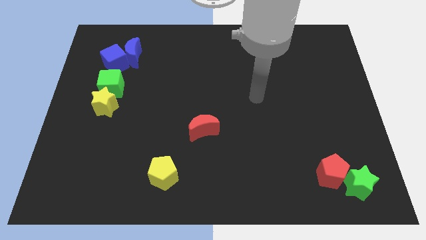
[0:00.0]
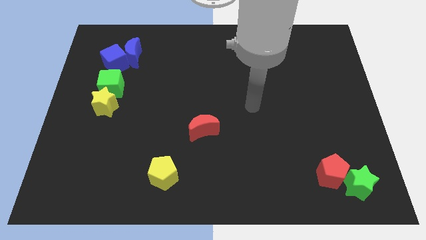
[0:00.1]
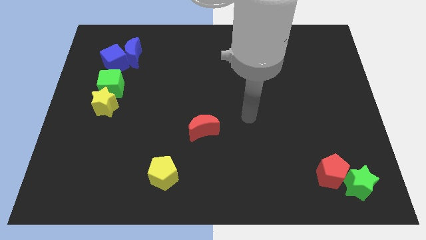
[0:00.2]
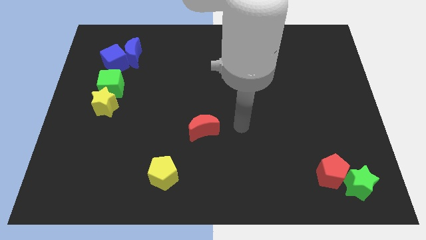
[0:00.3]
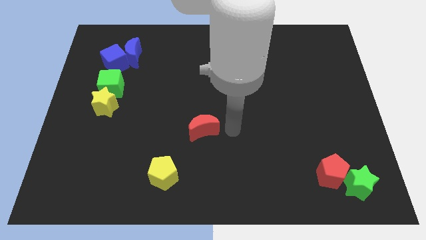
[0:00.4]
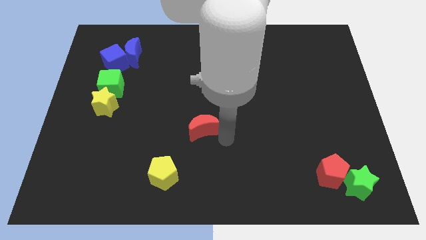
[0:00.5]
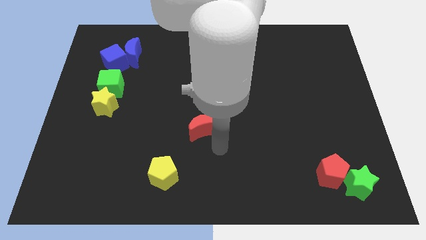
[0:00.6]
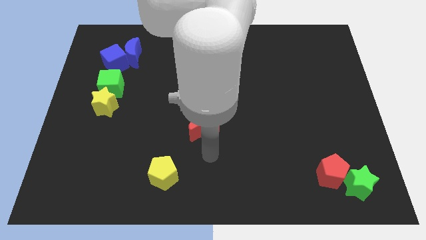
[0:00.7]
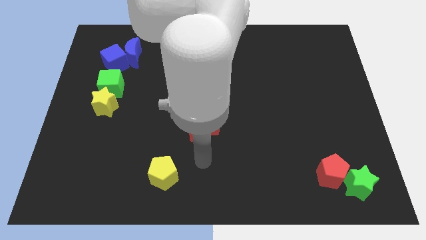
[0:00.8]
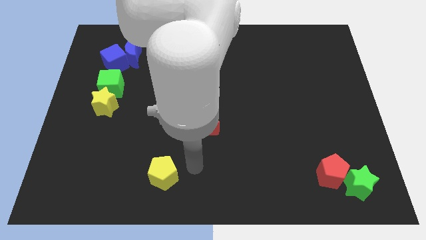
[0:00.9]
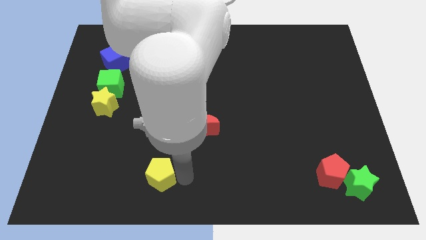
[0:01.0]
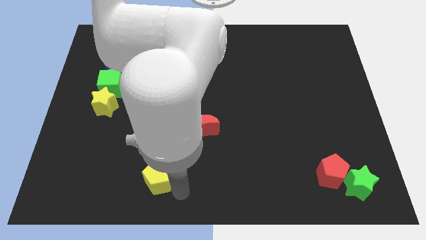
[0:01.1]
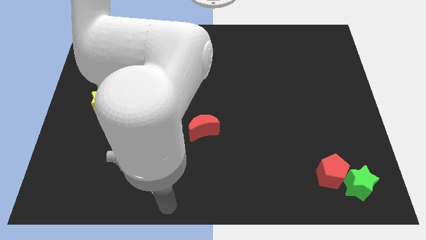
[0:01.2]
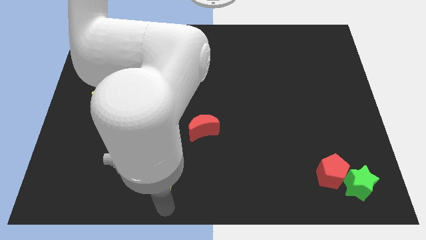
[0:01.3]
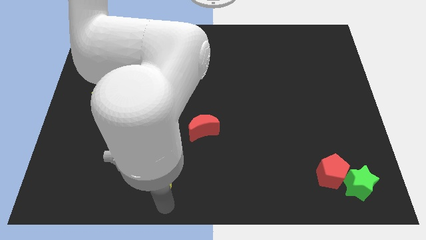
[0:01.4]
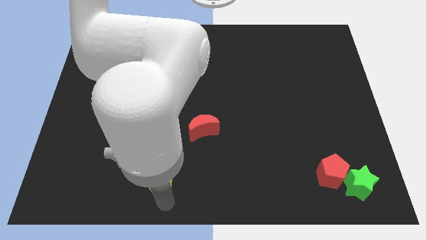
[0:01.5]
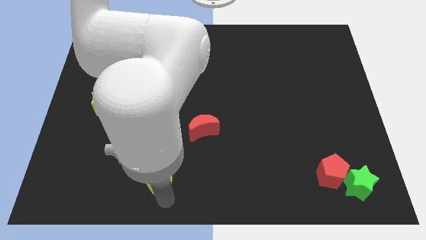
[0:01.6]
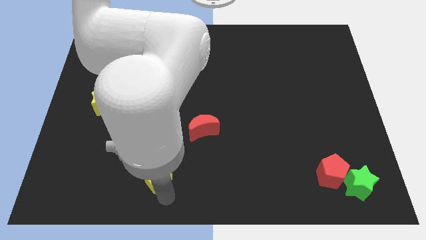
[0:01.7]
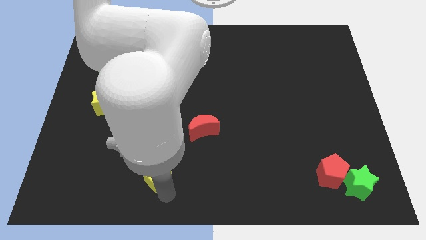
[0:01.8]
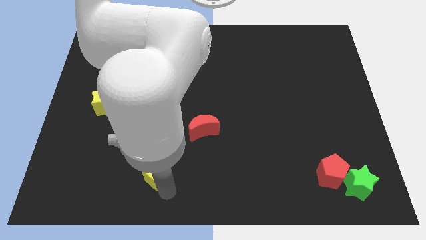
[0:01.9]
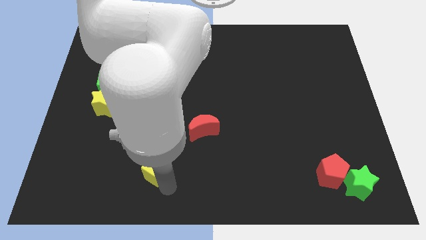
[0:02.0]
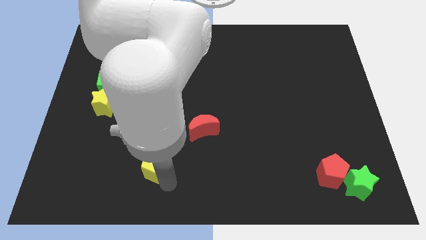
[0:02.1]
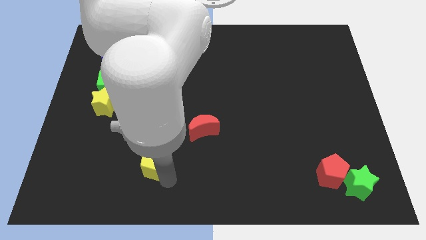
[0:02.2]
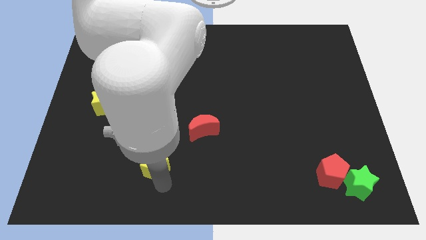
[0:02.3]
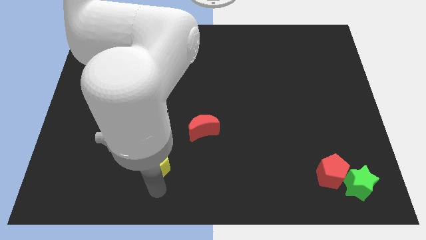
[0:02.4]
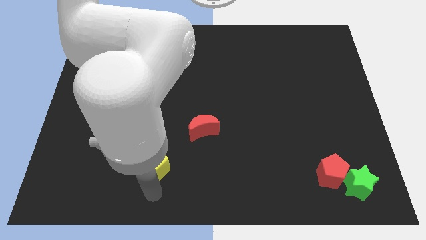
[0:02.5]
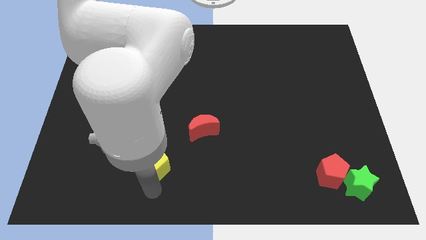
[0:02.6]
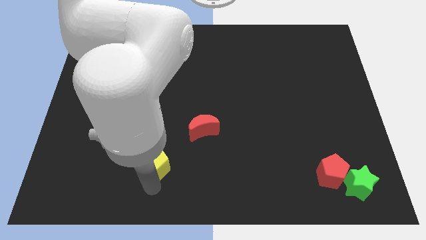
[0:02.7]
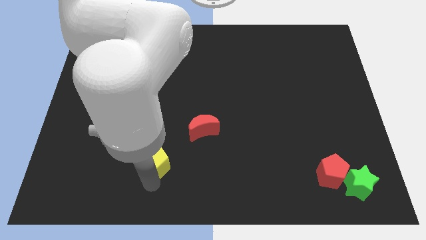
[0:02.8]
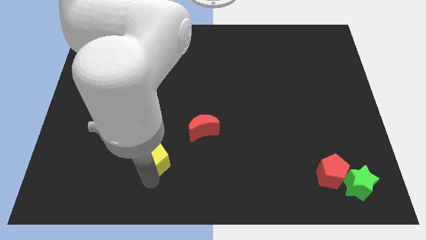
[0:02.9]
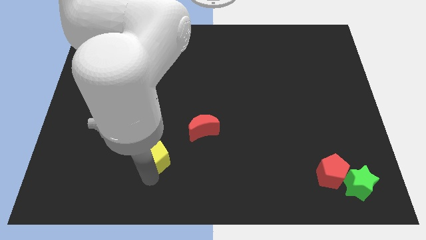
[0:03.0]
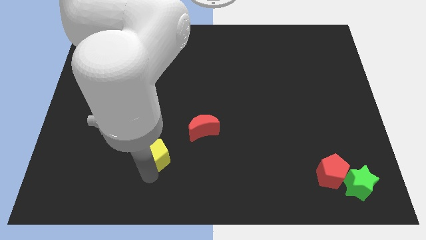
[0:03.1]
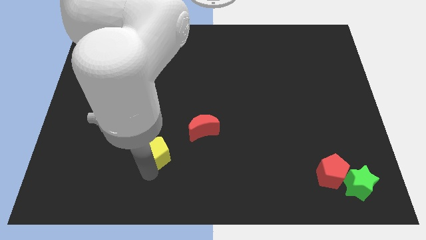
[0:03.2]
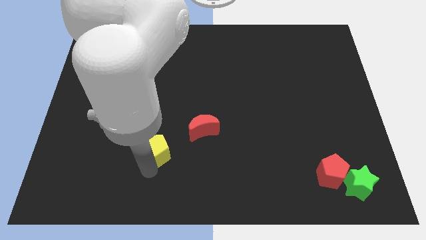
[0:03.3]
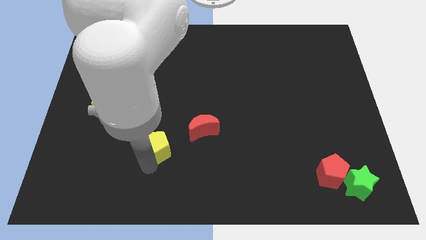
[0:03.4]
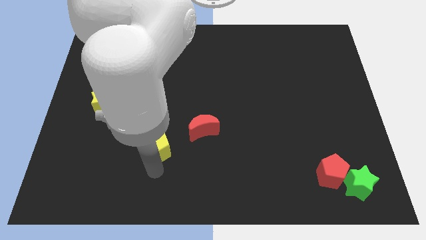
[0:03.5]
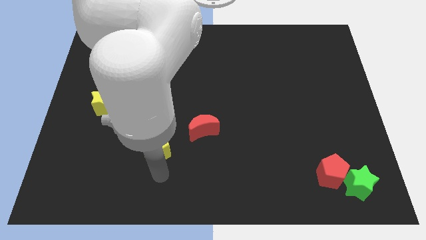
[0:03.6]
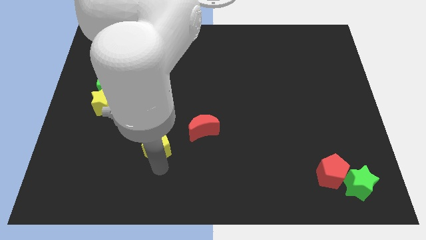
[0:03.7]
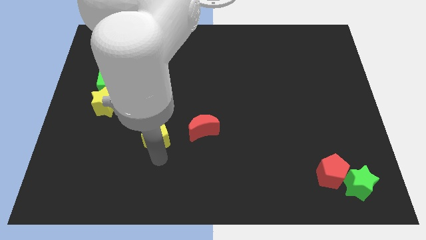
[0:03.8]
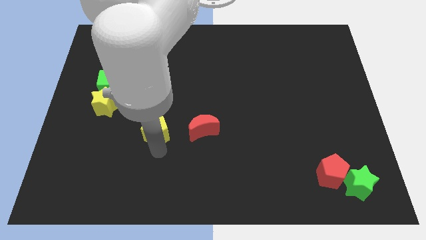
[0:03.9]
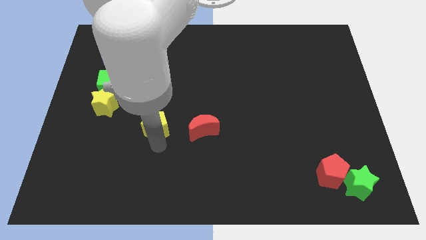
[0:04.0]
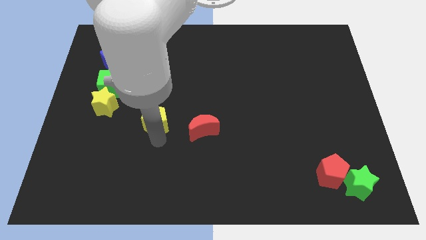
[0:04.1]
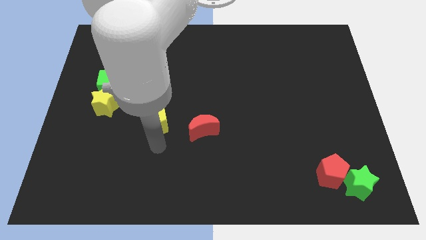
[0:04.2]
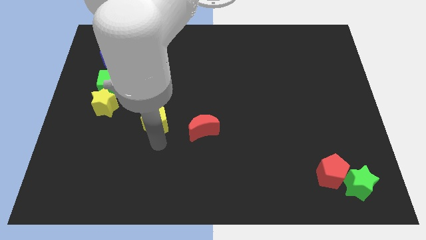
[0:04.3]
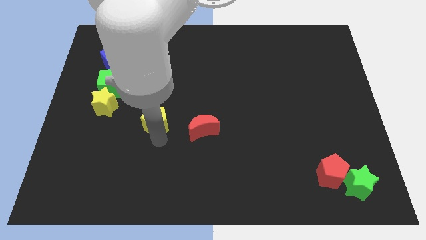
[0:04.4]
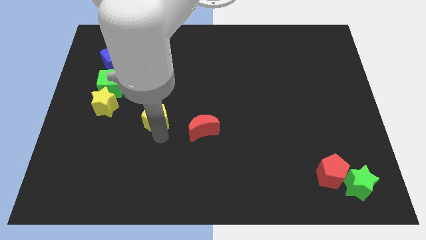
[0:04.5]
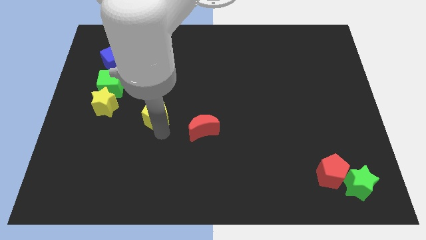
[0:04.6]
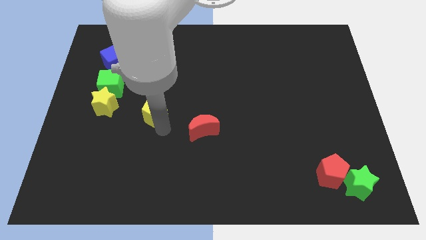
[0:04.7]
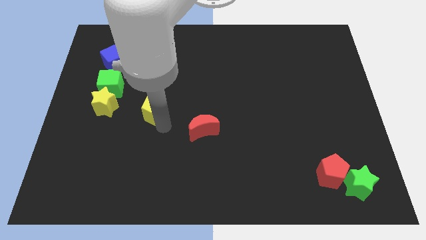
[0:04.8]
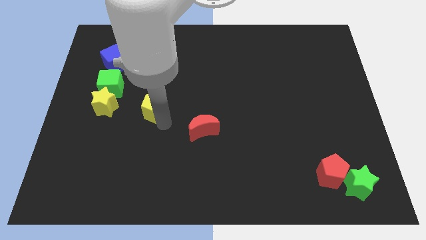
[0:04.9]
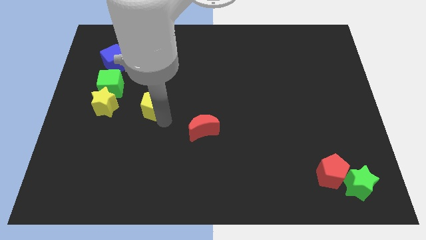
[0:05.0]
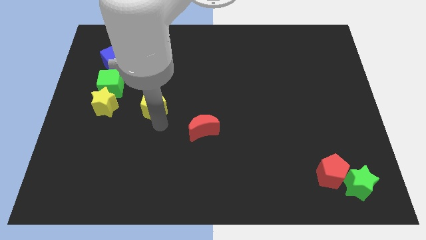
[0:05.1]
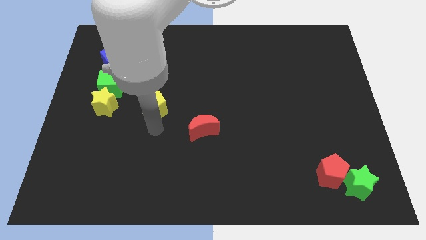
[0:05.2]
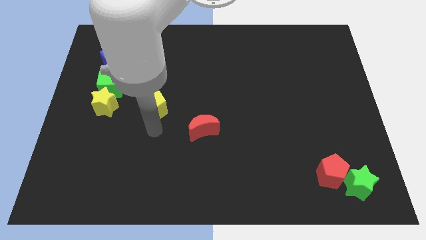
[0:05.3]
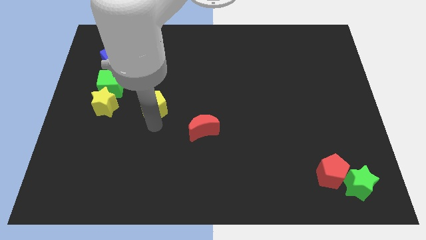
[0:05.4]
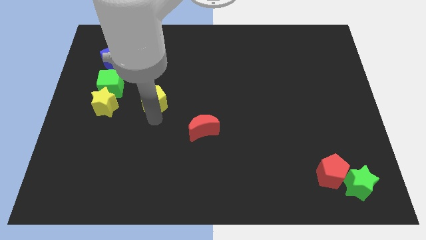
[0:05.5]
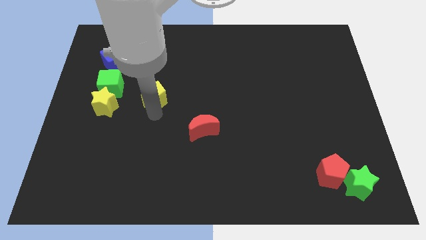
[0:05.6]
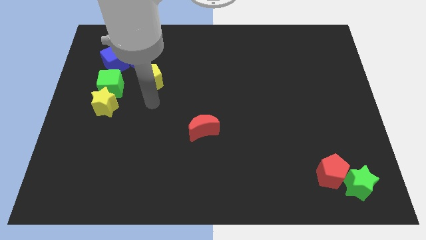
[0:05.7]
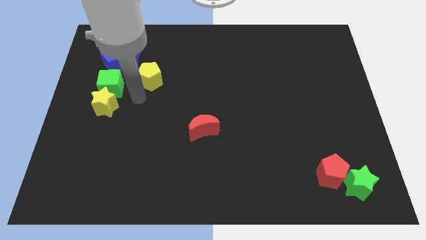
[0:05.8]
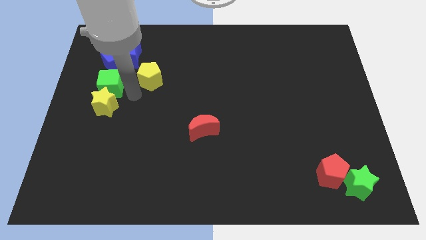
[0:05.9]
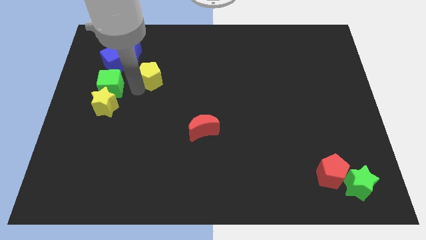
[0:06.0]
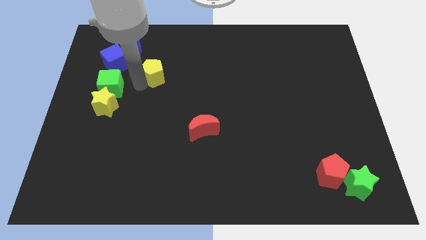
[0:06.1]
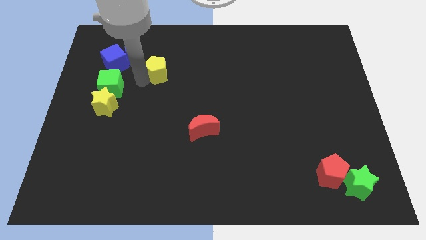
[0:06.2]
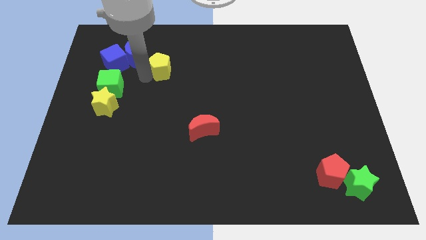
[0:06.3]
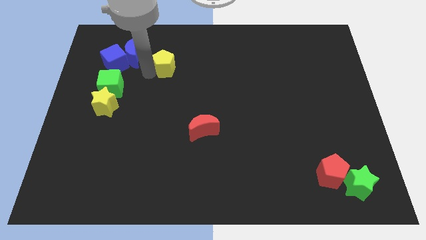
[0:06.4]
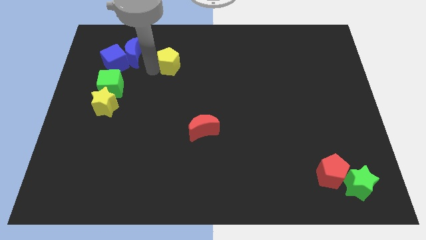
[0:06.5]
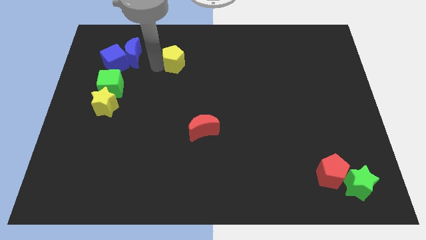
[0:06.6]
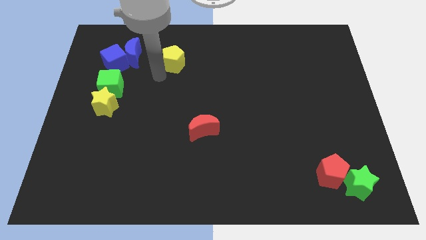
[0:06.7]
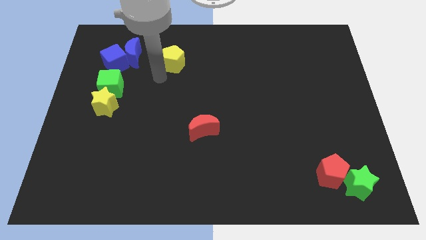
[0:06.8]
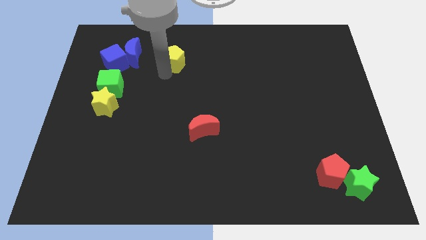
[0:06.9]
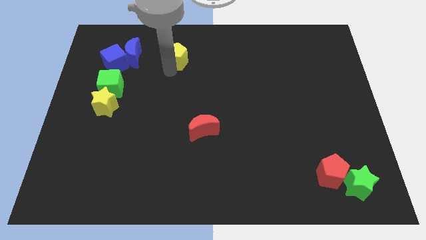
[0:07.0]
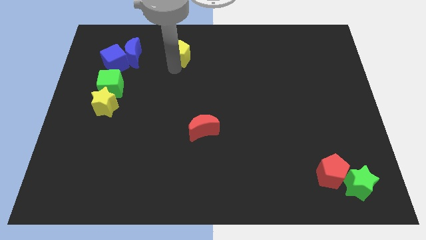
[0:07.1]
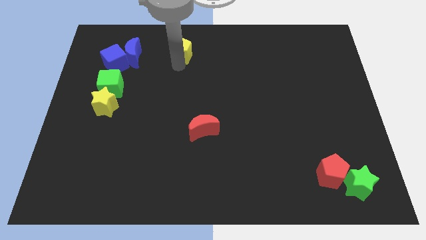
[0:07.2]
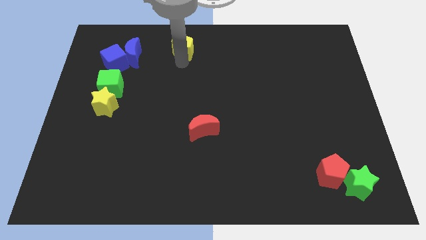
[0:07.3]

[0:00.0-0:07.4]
slide the yellow pentagon to the top side
